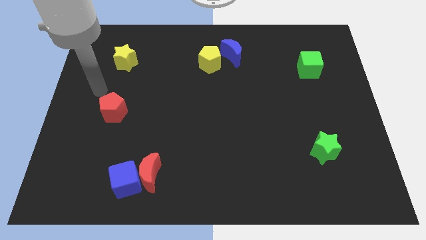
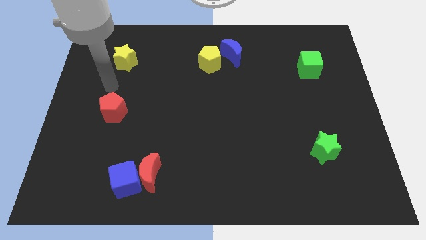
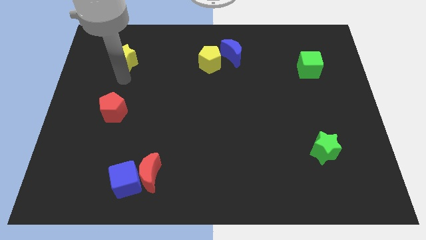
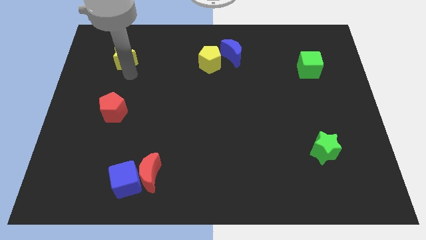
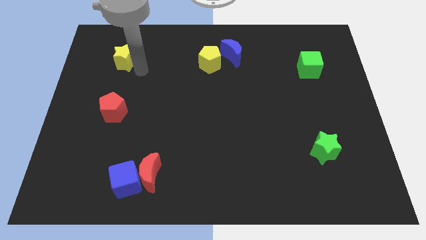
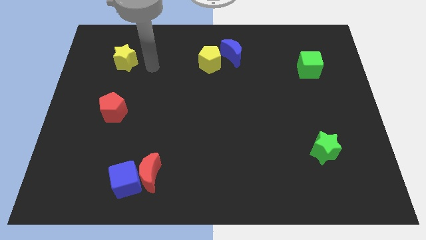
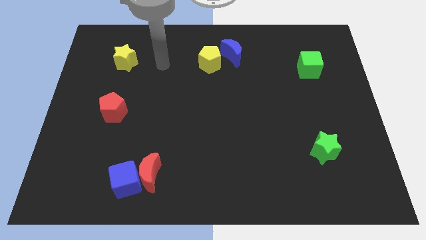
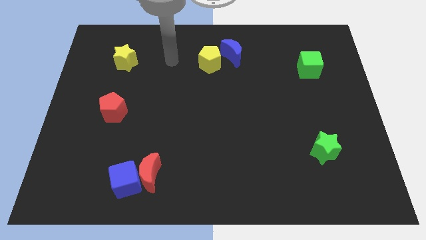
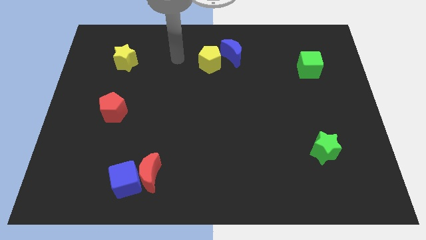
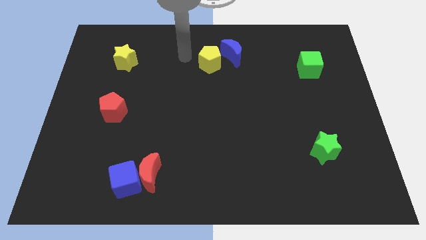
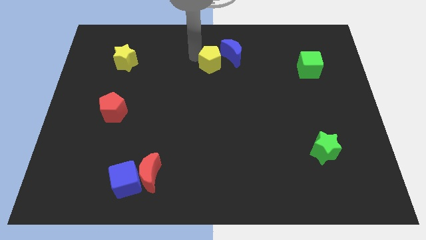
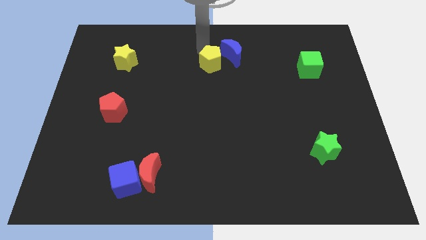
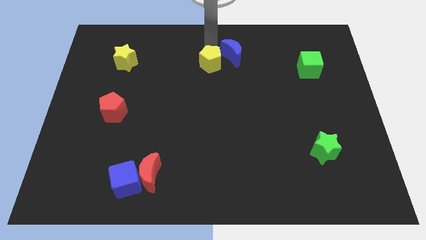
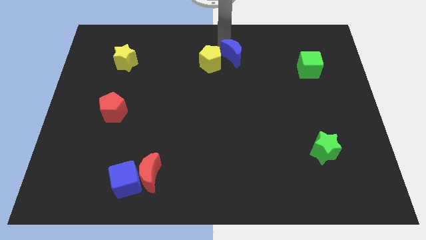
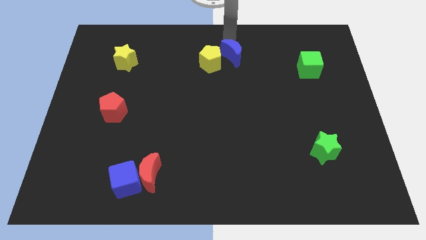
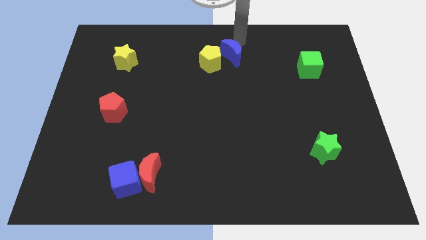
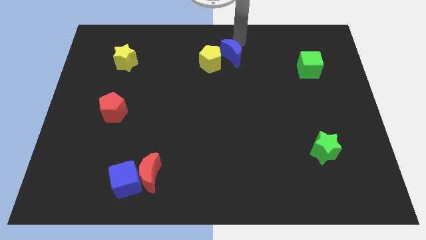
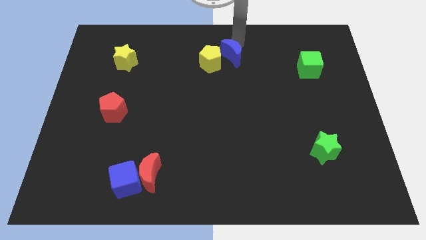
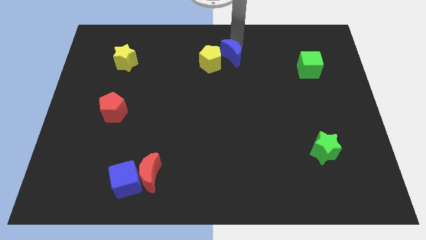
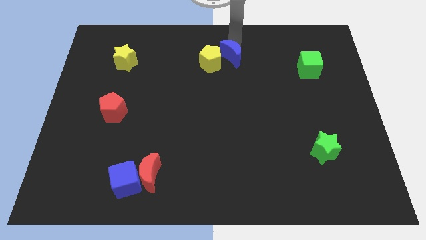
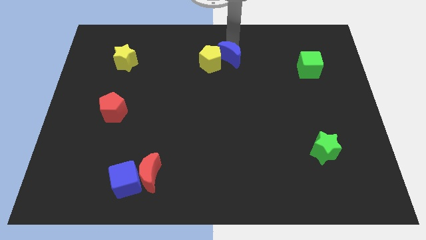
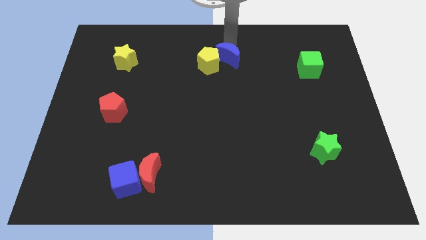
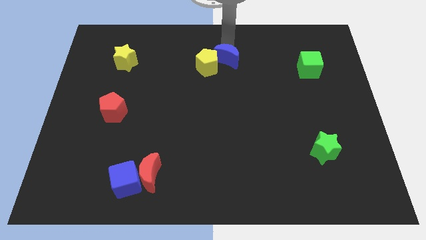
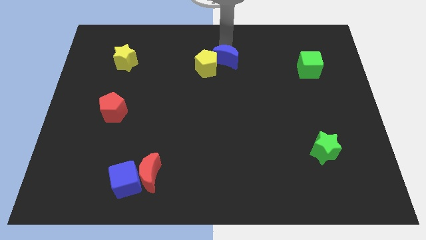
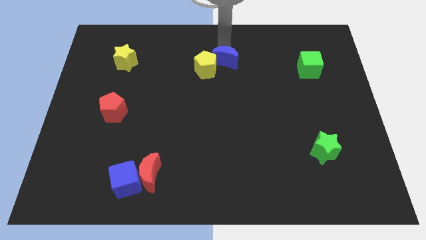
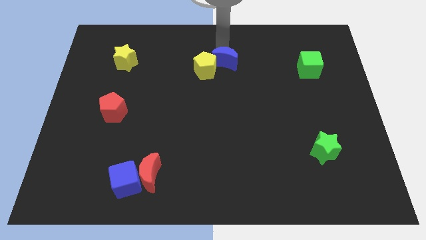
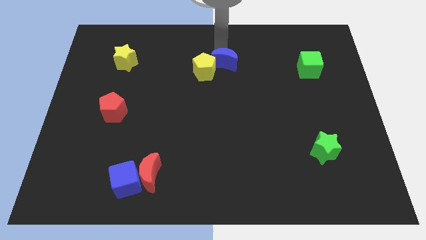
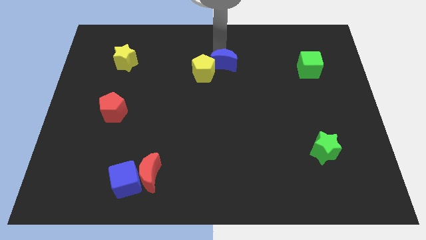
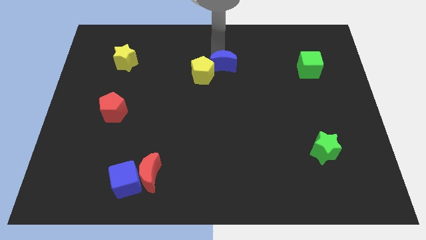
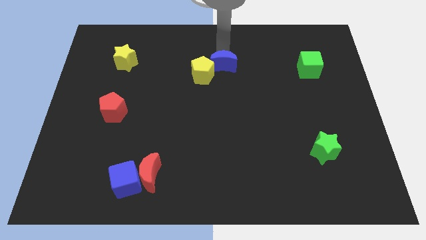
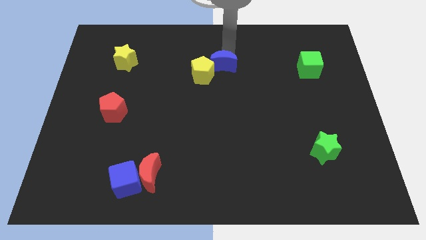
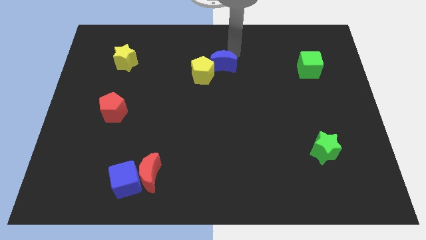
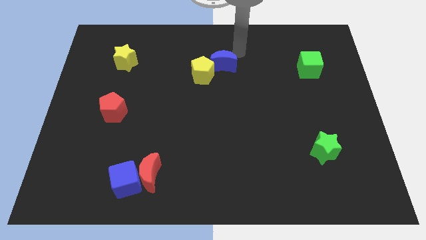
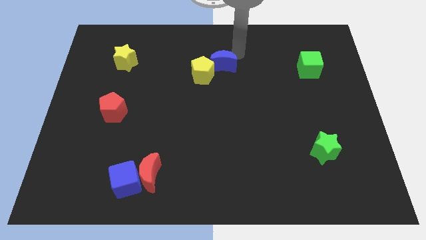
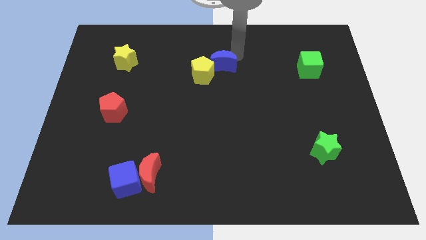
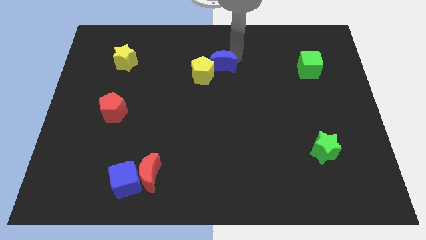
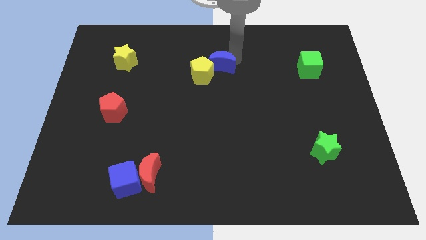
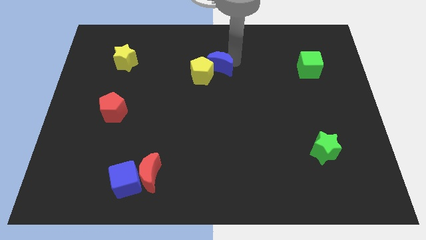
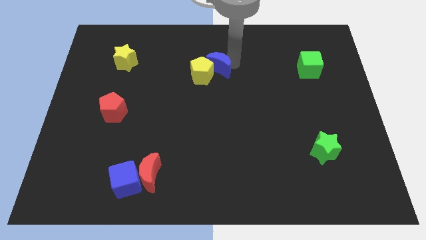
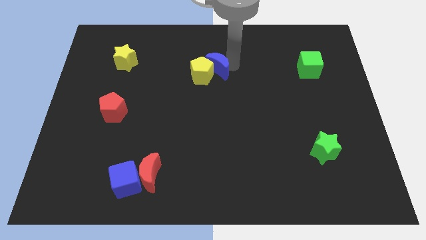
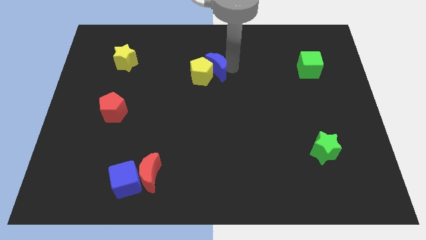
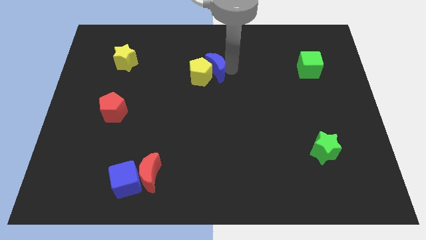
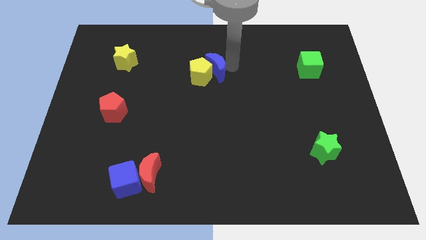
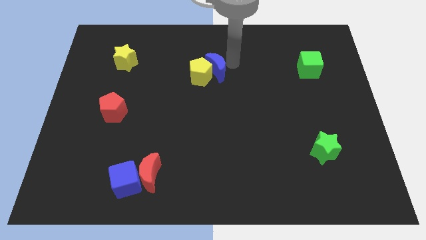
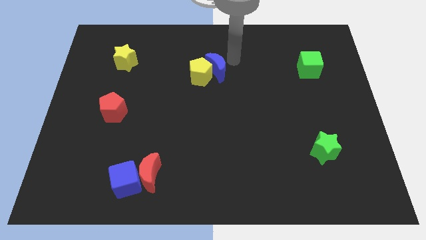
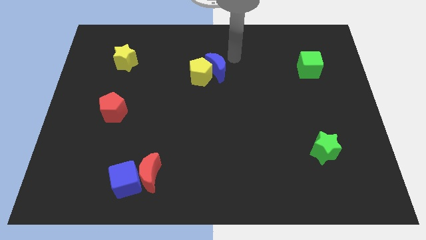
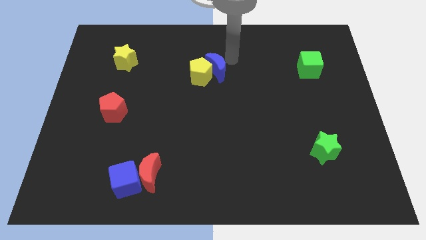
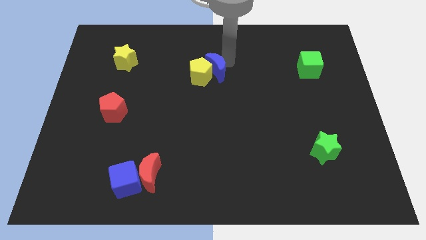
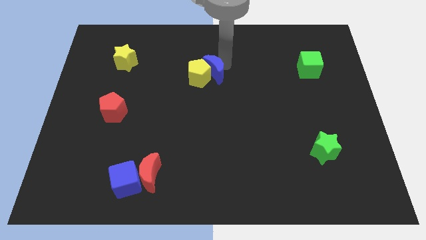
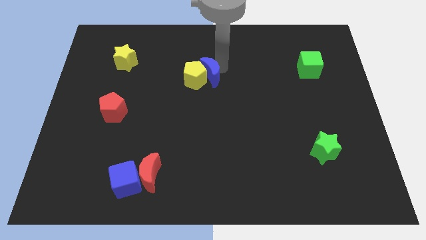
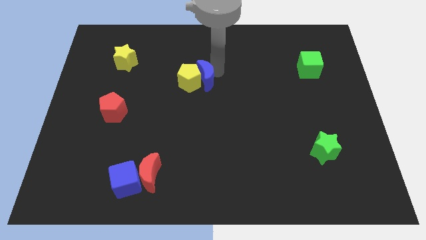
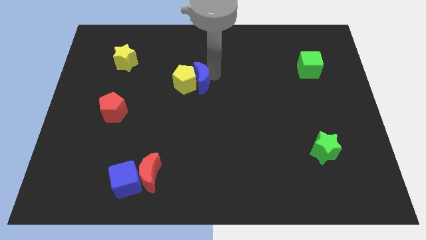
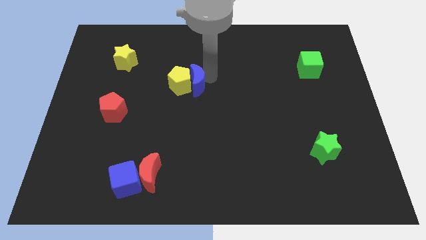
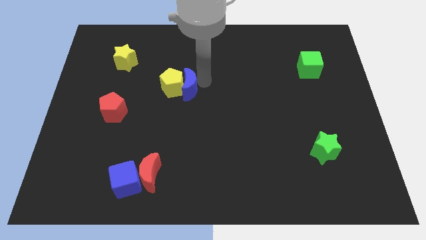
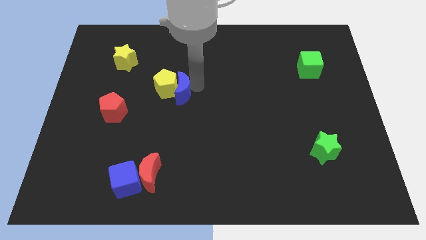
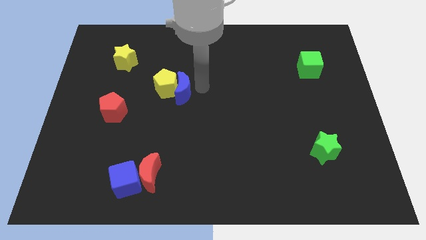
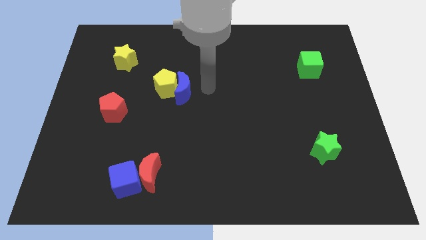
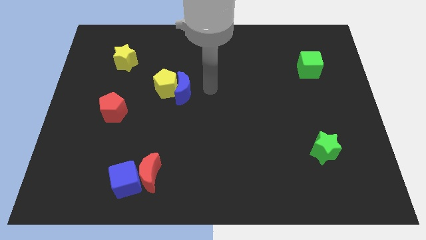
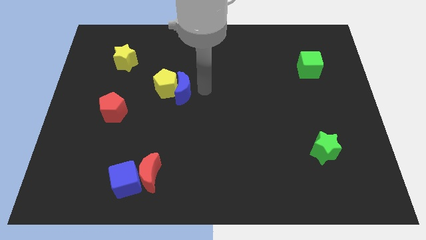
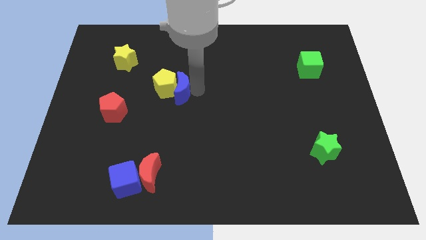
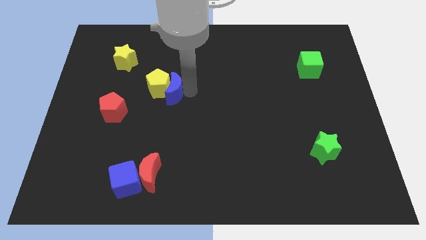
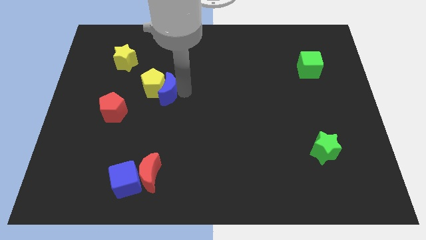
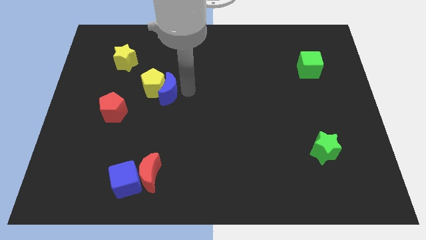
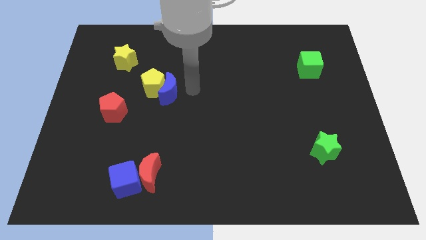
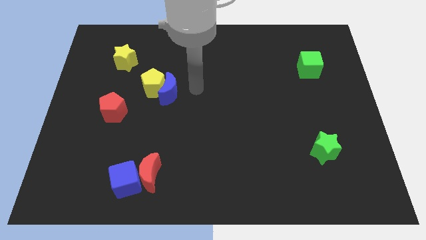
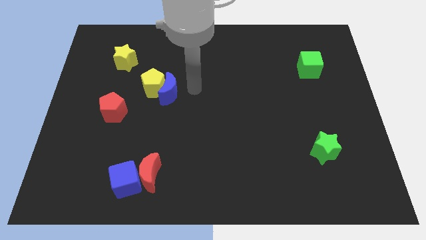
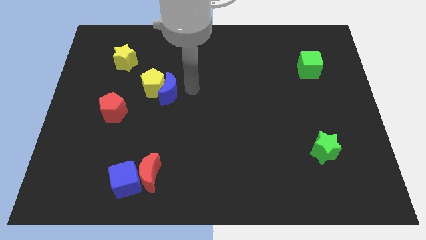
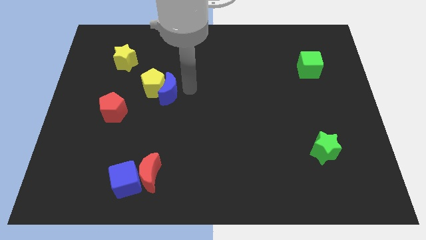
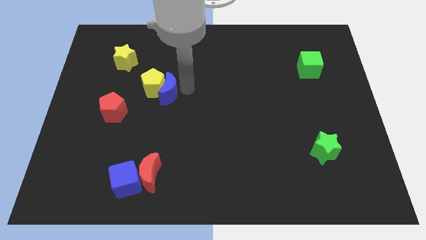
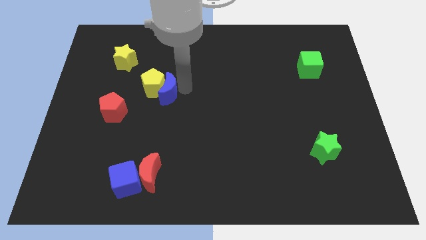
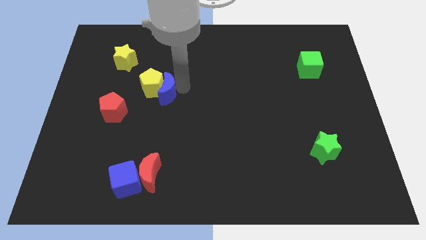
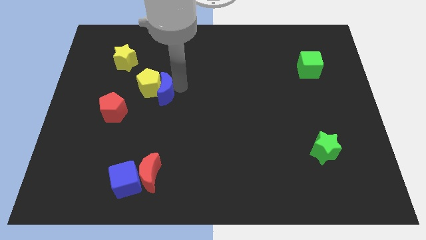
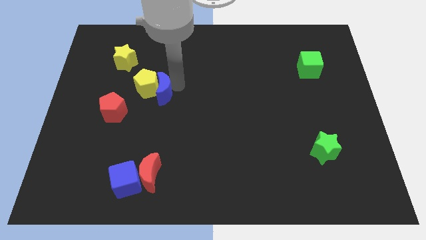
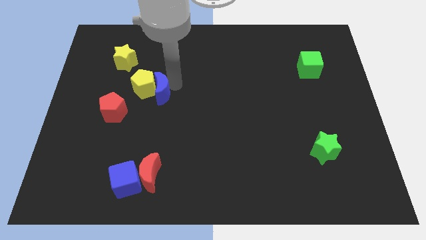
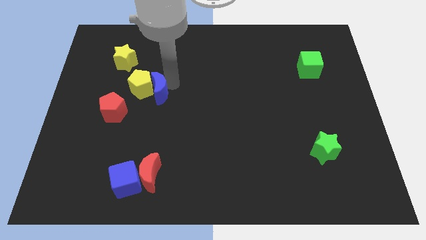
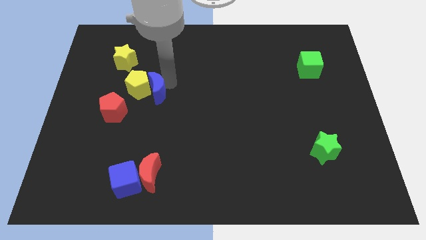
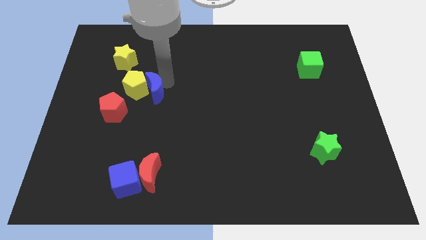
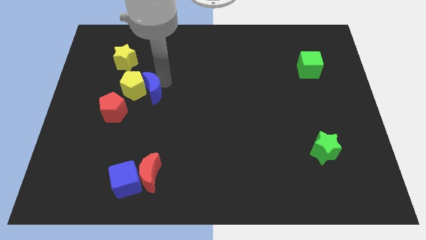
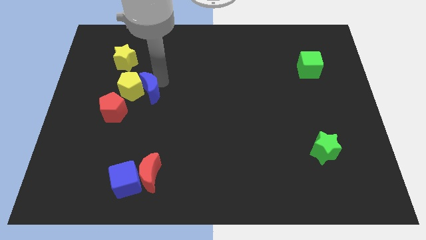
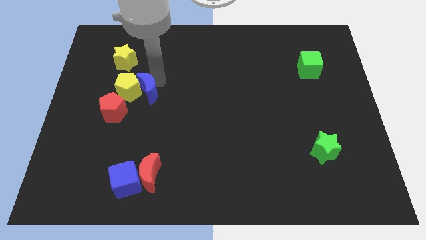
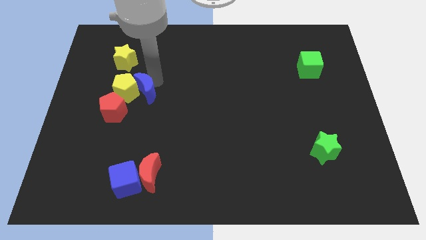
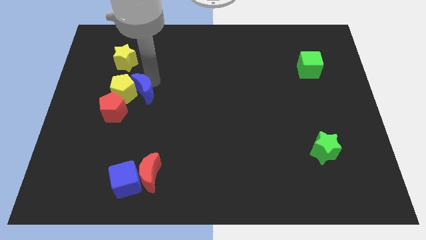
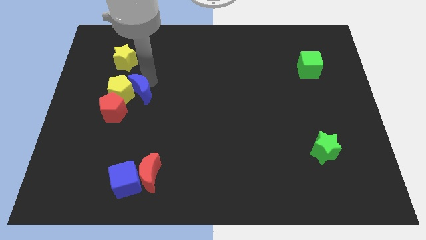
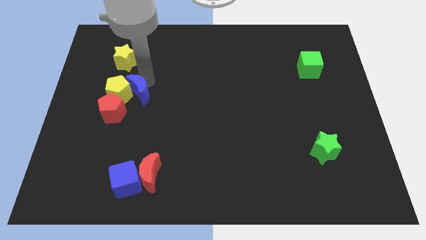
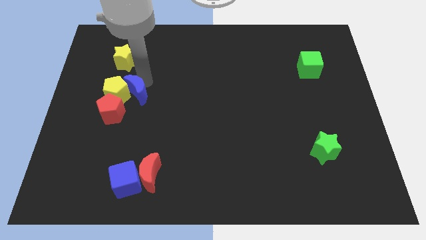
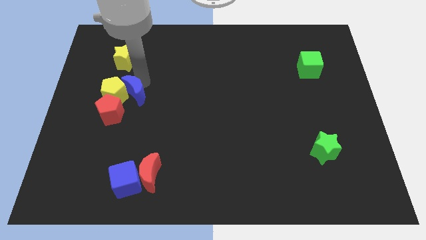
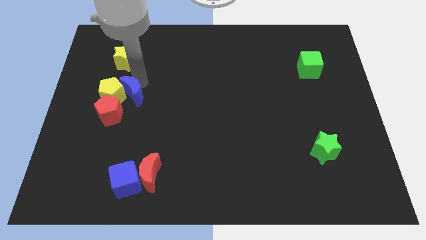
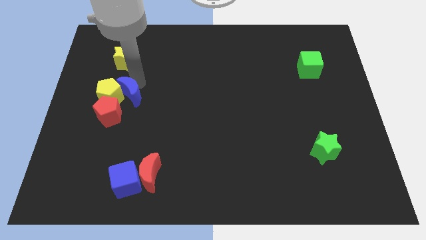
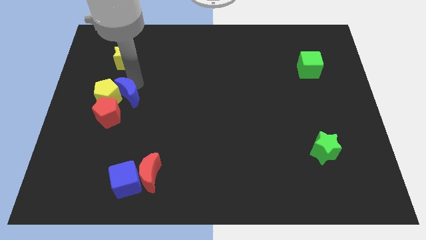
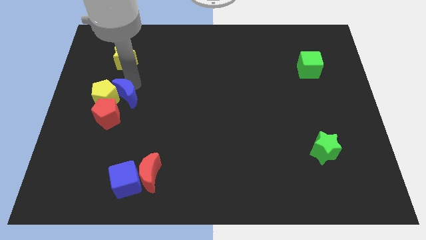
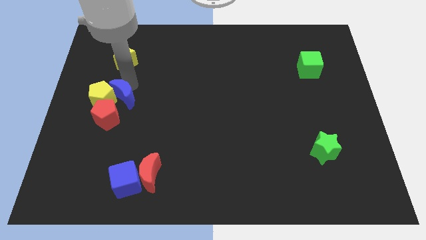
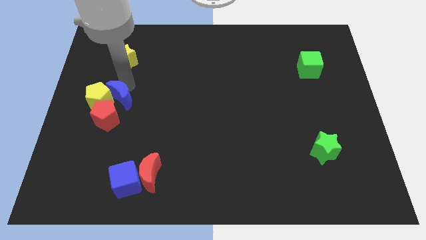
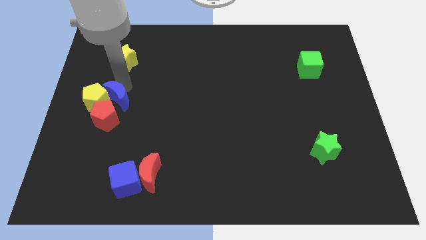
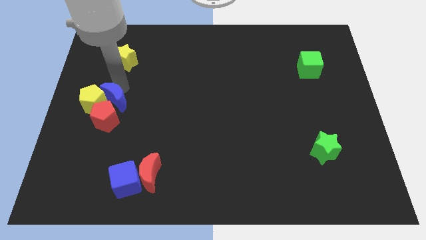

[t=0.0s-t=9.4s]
put the blue moon next to the red pentagon
